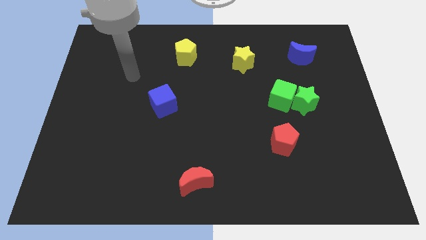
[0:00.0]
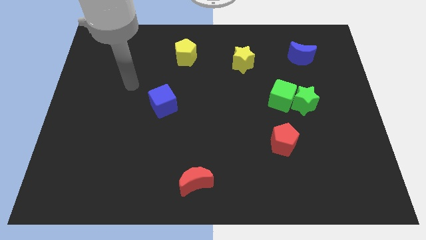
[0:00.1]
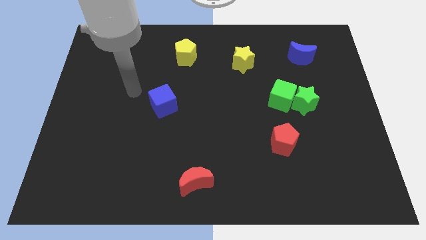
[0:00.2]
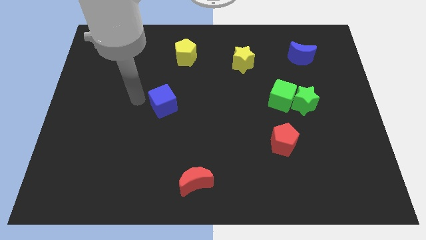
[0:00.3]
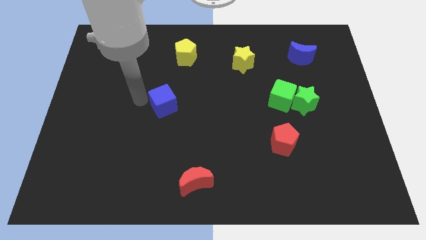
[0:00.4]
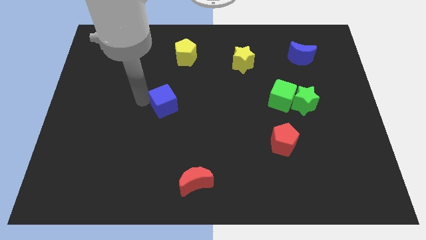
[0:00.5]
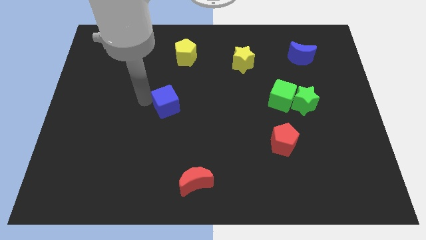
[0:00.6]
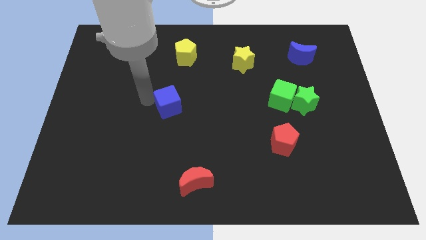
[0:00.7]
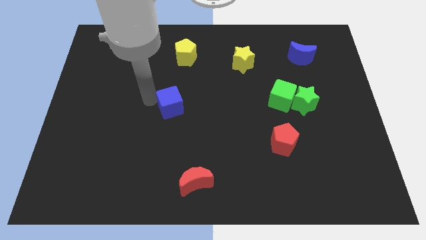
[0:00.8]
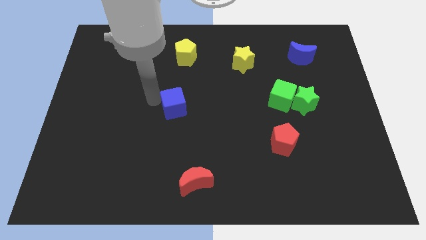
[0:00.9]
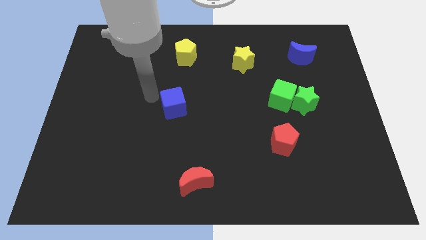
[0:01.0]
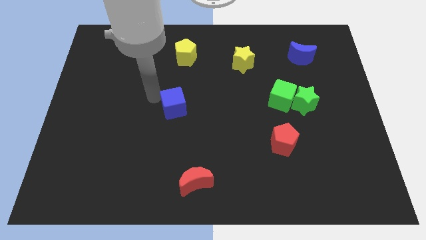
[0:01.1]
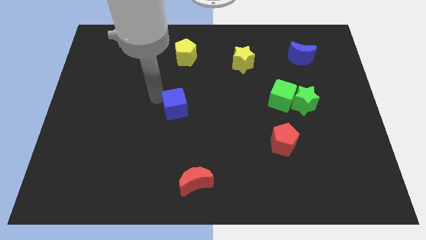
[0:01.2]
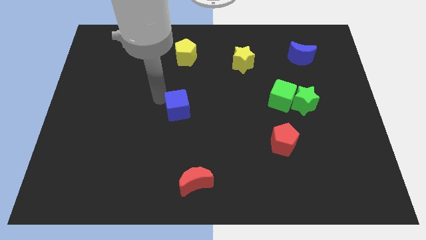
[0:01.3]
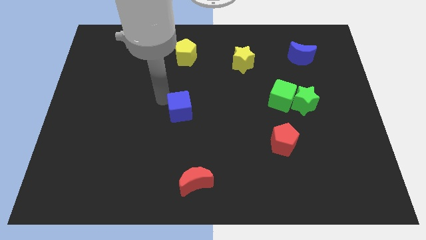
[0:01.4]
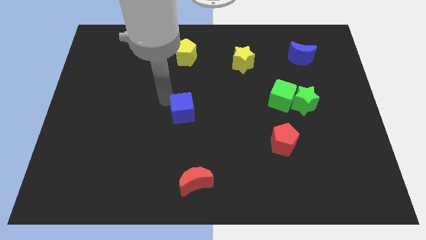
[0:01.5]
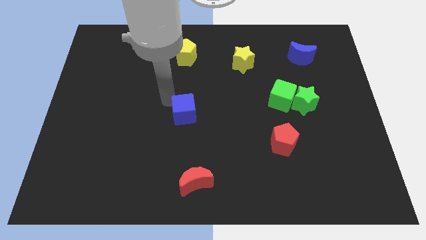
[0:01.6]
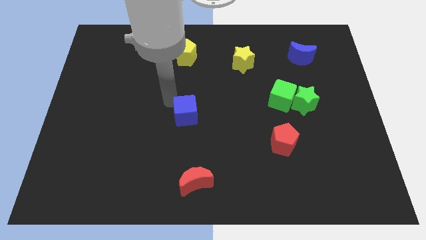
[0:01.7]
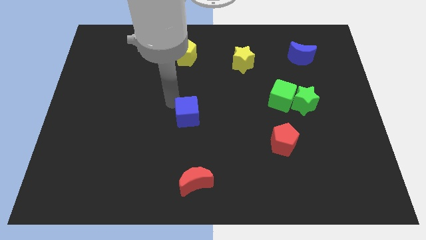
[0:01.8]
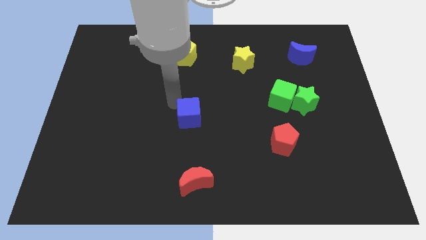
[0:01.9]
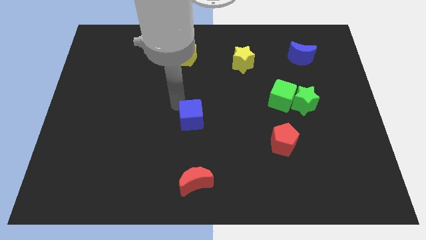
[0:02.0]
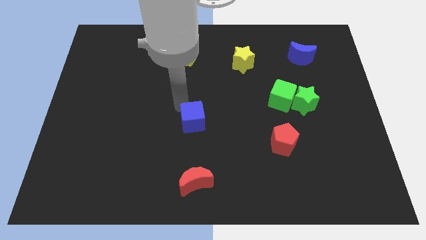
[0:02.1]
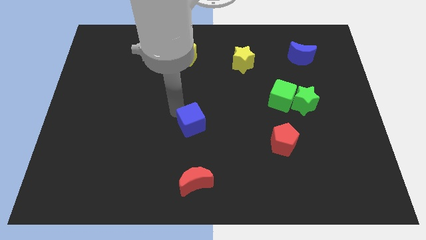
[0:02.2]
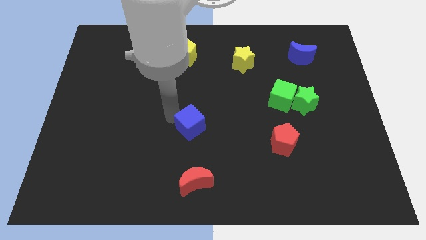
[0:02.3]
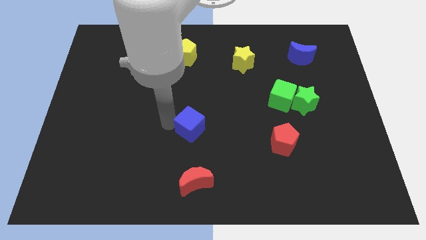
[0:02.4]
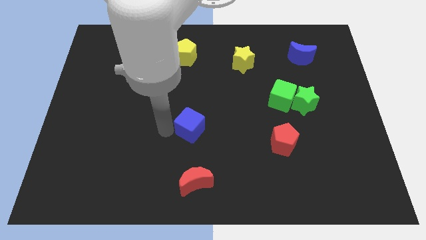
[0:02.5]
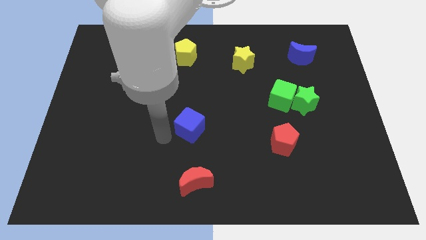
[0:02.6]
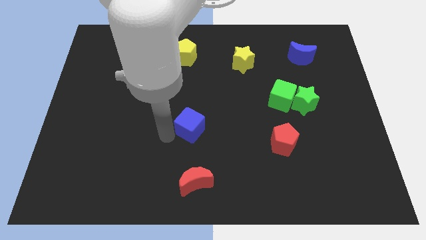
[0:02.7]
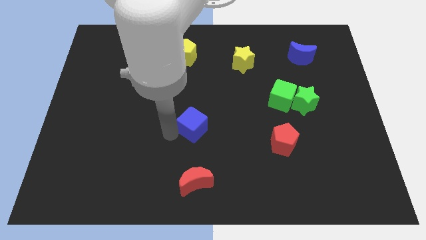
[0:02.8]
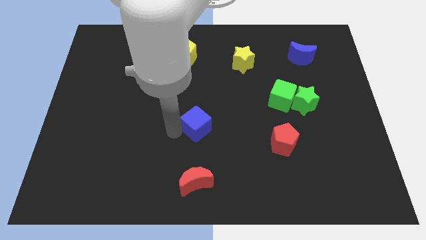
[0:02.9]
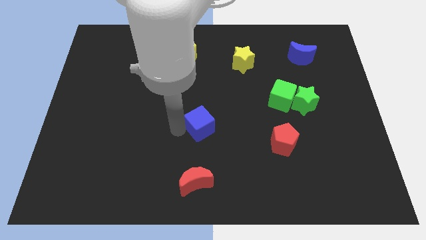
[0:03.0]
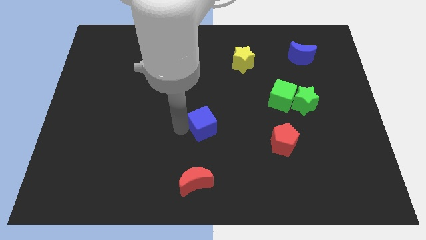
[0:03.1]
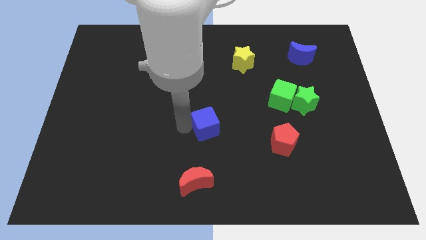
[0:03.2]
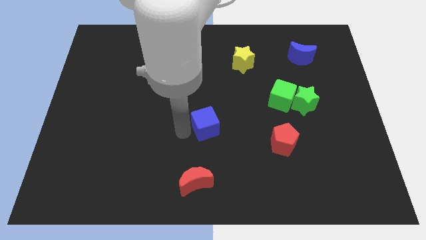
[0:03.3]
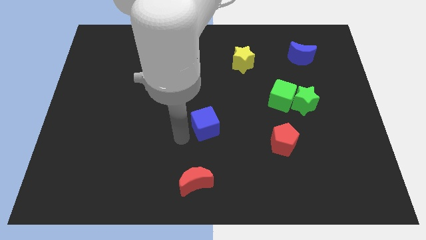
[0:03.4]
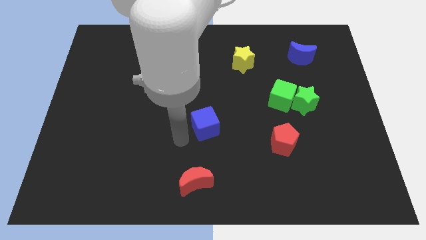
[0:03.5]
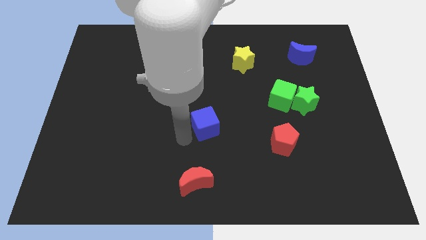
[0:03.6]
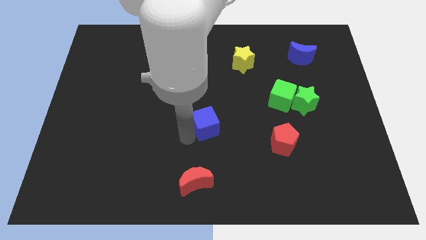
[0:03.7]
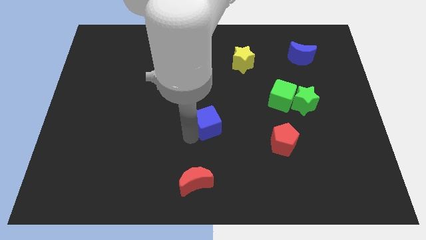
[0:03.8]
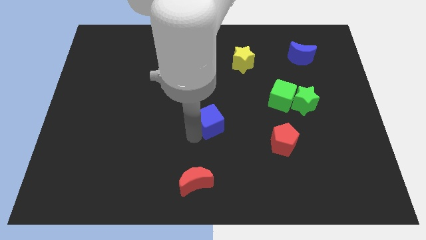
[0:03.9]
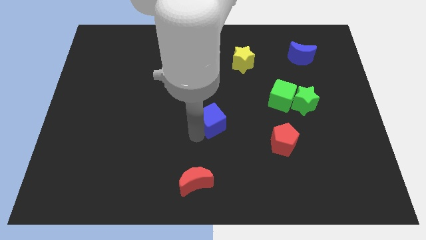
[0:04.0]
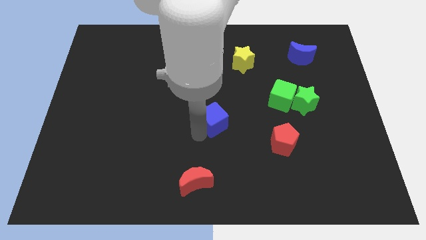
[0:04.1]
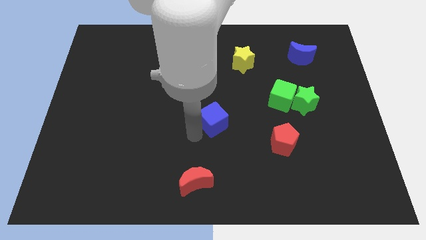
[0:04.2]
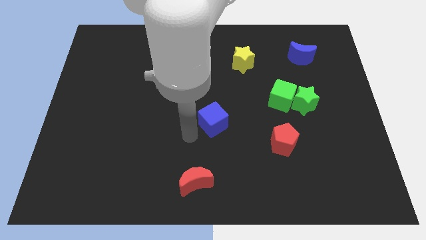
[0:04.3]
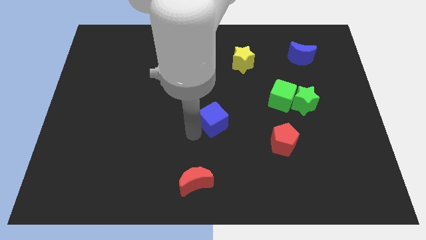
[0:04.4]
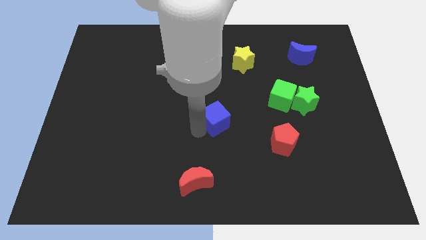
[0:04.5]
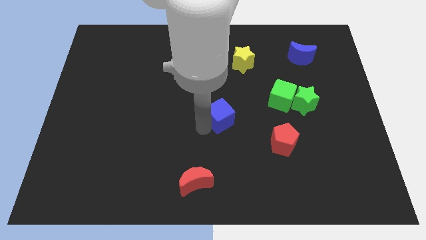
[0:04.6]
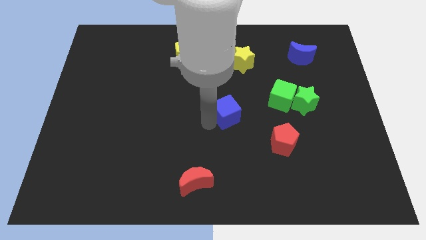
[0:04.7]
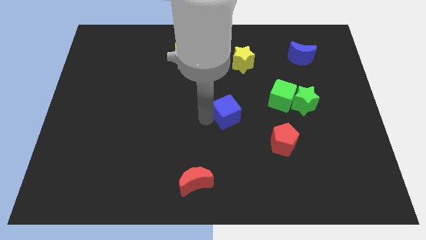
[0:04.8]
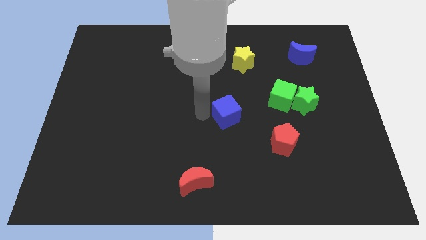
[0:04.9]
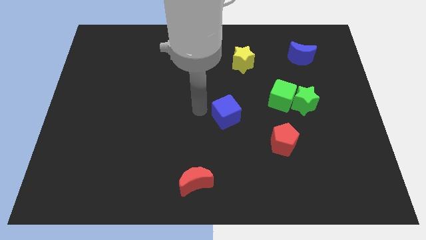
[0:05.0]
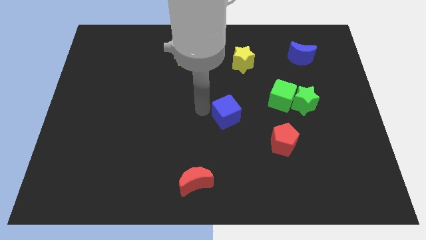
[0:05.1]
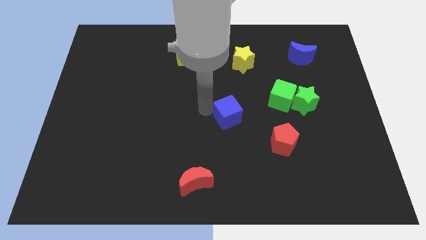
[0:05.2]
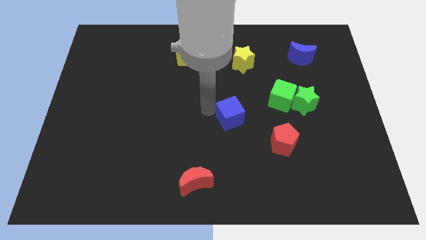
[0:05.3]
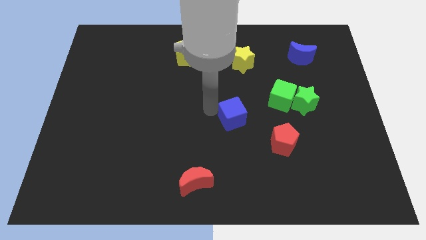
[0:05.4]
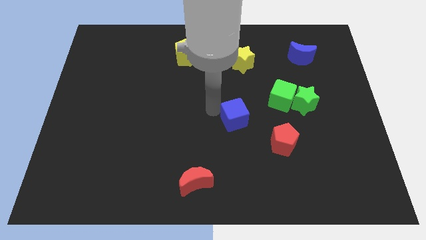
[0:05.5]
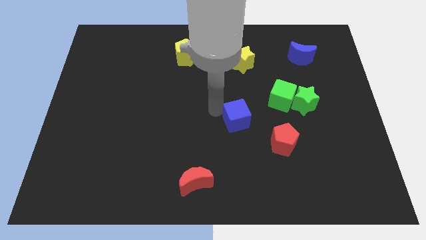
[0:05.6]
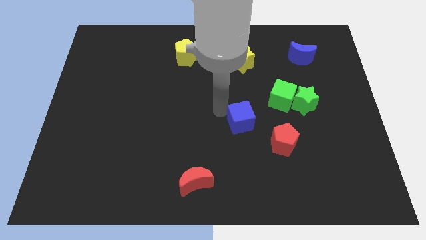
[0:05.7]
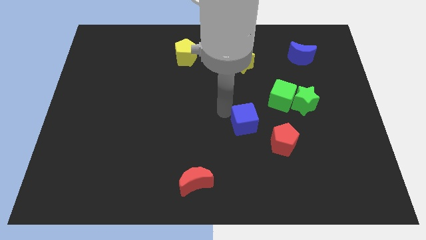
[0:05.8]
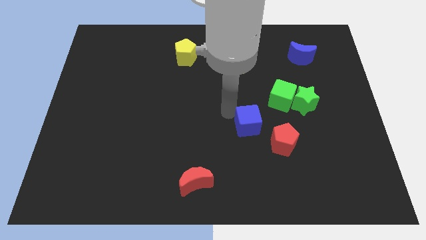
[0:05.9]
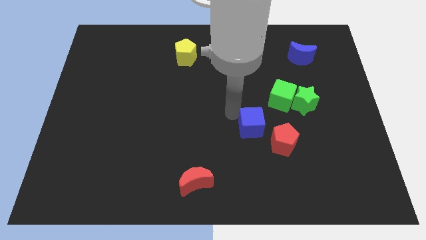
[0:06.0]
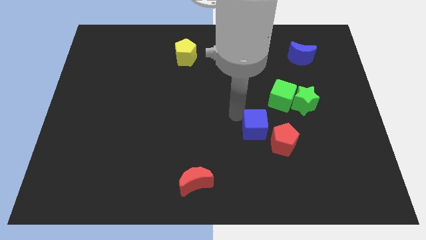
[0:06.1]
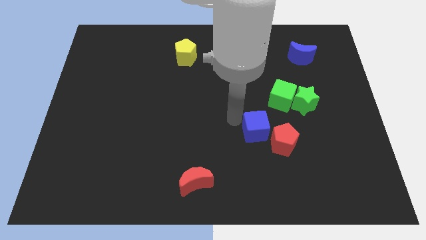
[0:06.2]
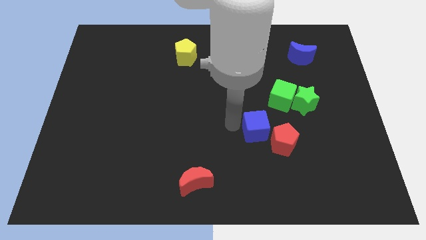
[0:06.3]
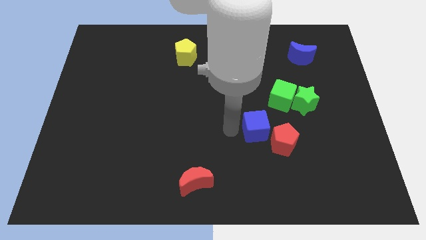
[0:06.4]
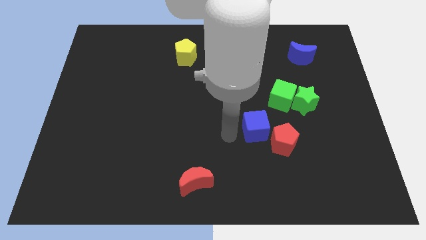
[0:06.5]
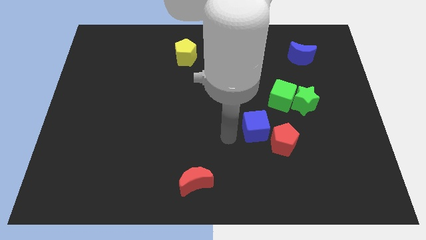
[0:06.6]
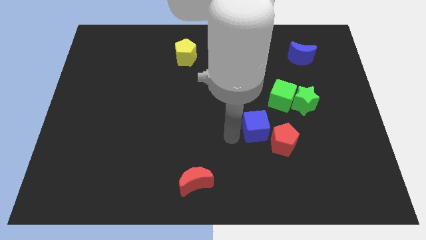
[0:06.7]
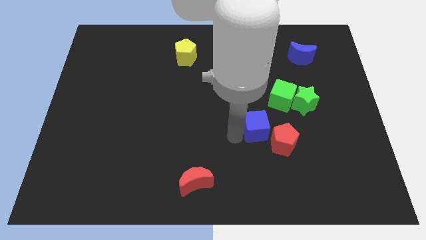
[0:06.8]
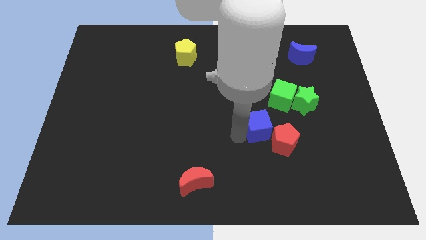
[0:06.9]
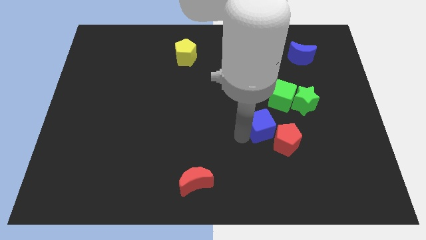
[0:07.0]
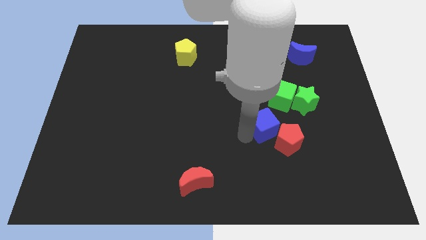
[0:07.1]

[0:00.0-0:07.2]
move the blue cube to the bottom left of the green star

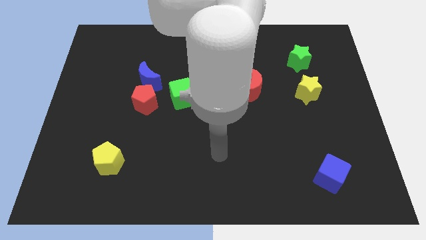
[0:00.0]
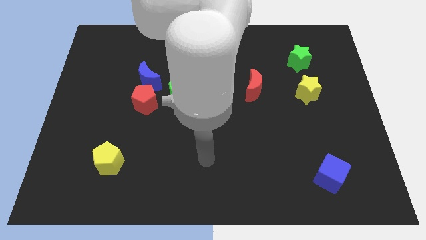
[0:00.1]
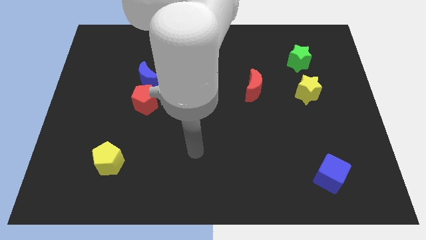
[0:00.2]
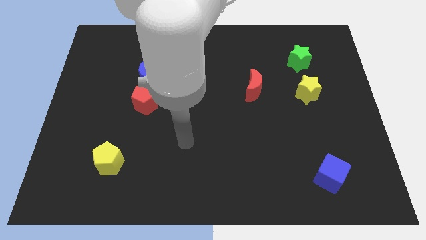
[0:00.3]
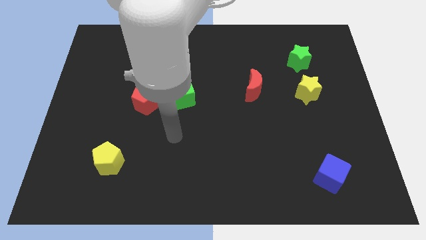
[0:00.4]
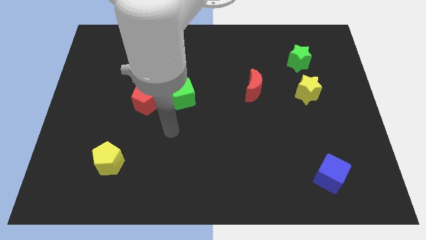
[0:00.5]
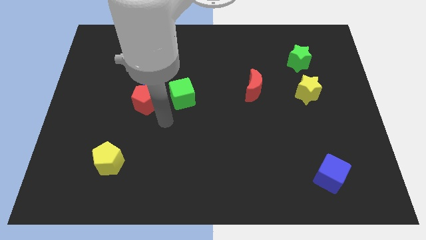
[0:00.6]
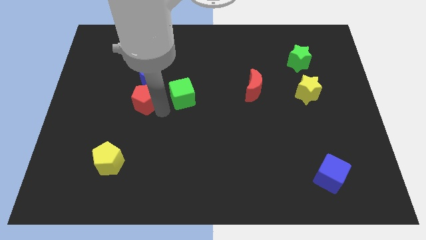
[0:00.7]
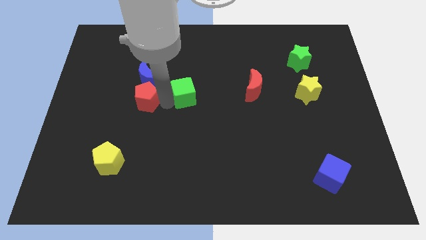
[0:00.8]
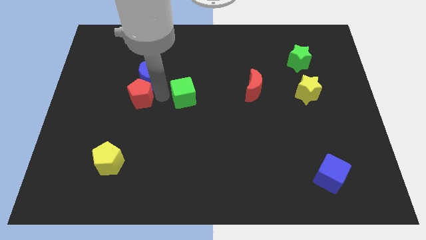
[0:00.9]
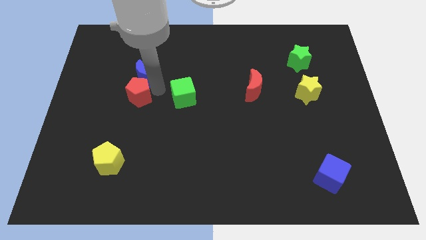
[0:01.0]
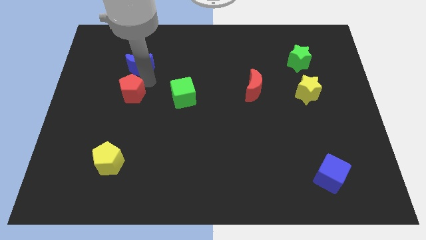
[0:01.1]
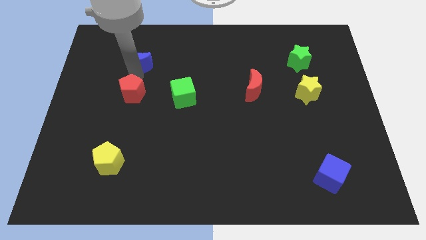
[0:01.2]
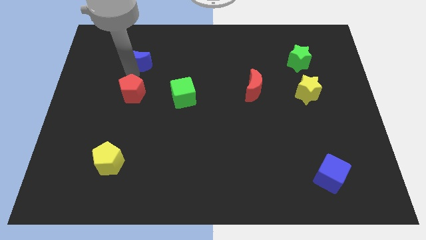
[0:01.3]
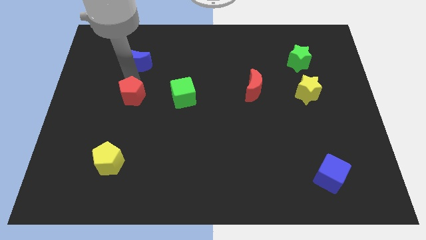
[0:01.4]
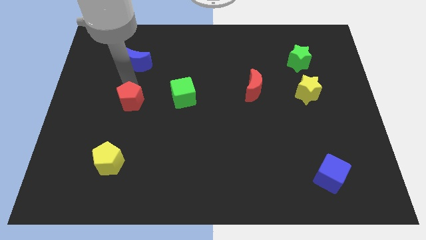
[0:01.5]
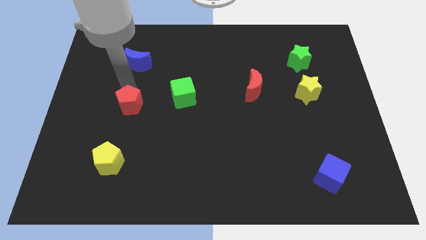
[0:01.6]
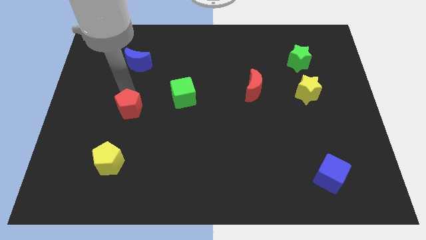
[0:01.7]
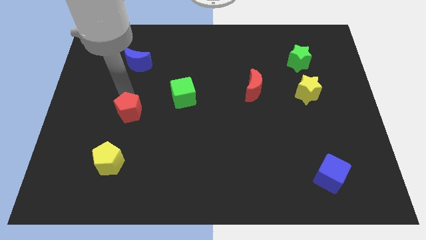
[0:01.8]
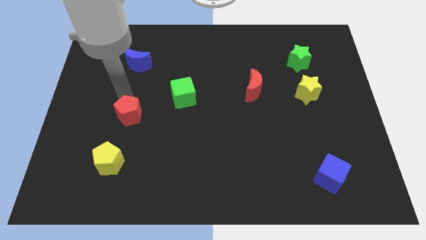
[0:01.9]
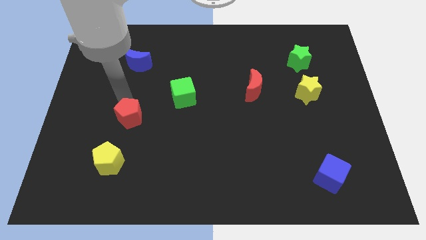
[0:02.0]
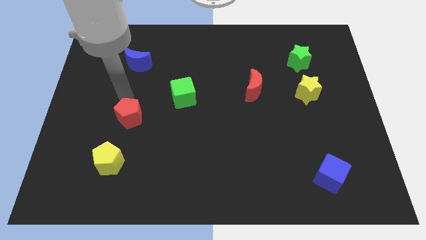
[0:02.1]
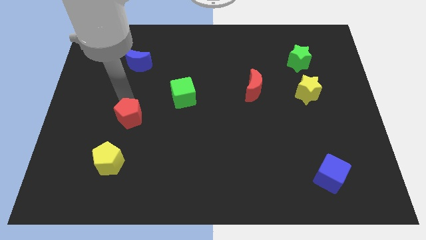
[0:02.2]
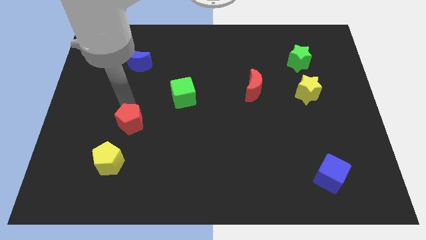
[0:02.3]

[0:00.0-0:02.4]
slide the red pentagon to the top right of the yellow pentagon
